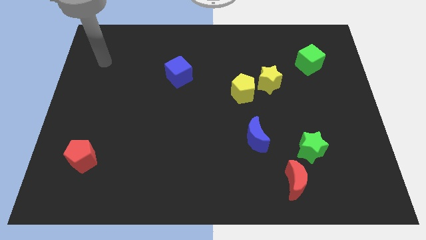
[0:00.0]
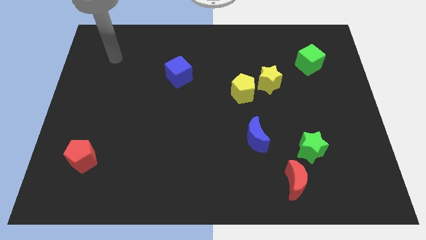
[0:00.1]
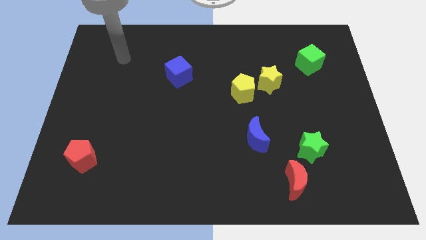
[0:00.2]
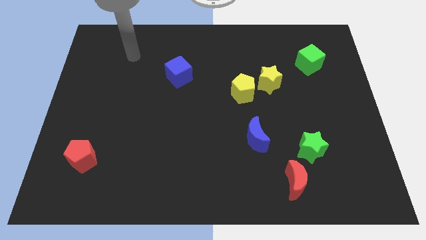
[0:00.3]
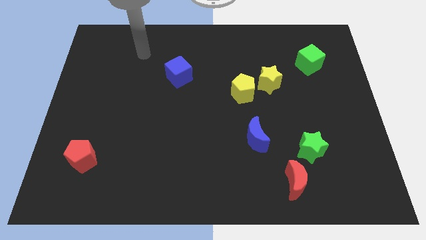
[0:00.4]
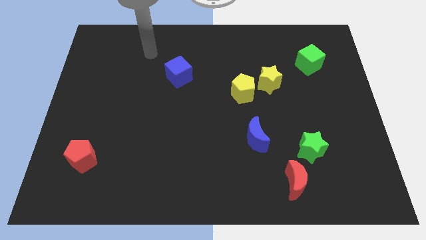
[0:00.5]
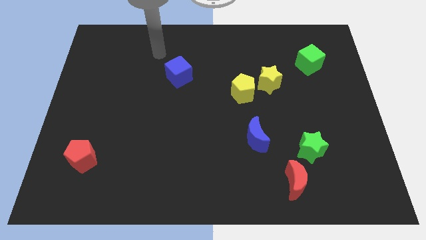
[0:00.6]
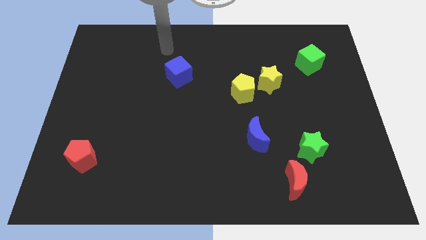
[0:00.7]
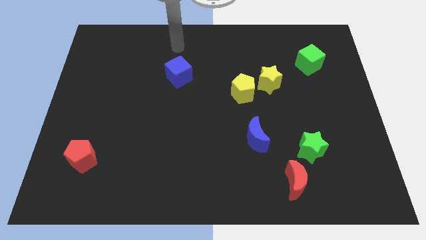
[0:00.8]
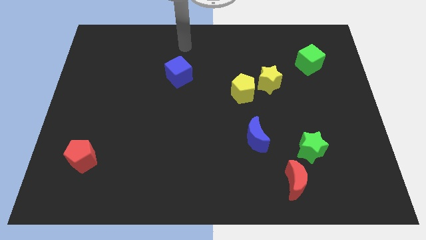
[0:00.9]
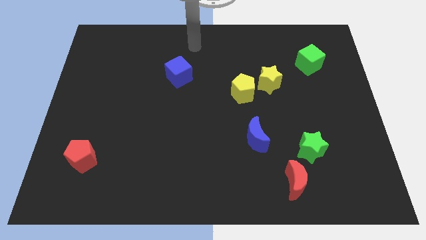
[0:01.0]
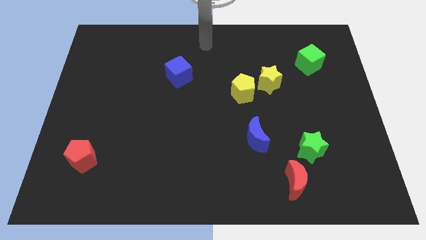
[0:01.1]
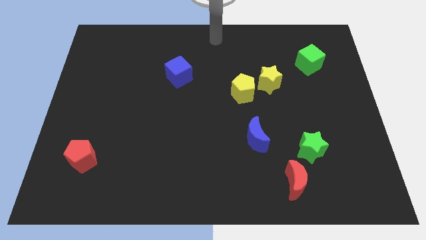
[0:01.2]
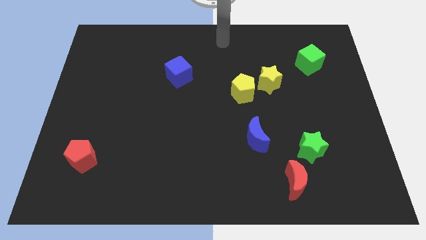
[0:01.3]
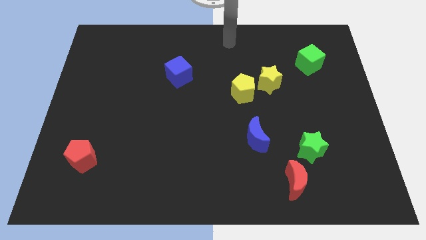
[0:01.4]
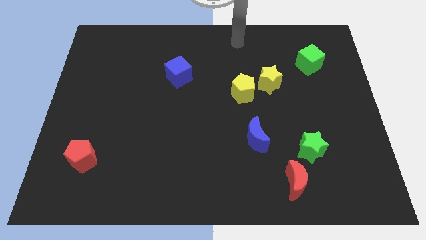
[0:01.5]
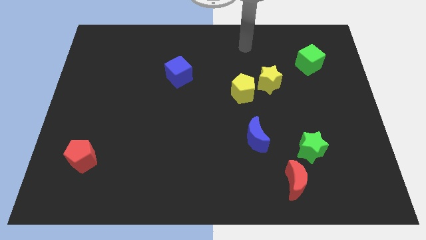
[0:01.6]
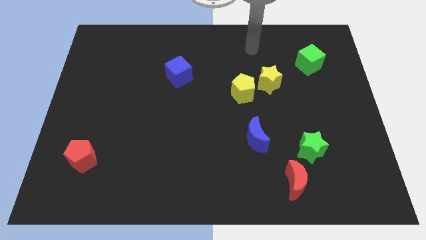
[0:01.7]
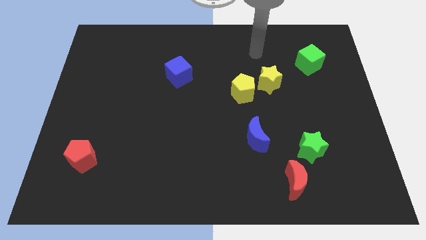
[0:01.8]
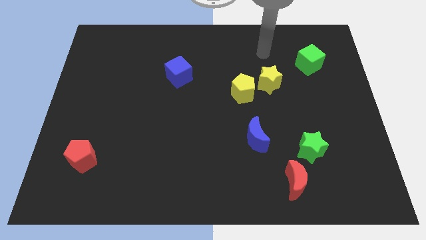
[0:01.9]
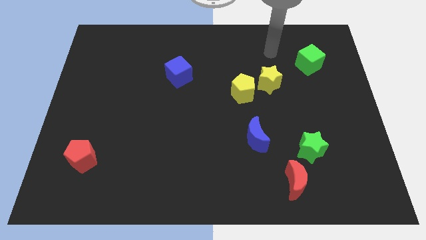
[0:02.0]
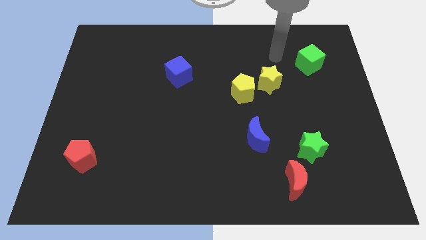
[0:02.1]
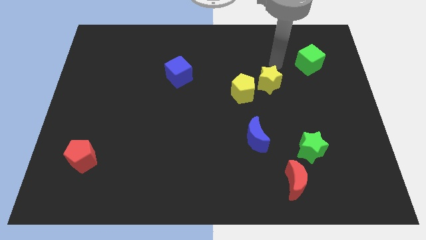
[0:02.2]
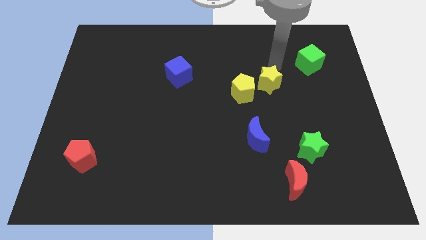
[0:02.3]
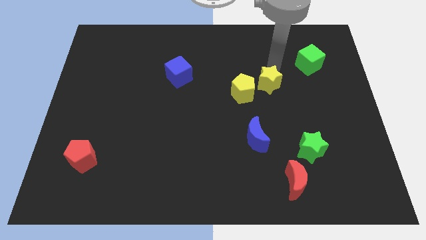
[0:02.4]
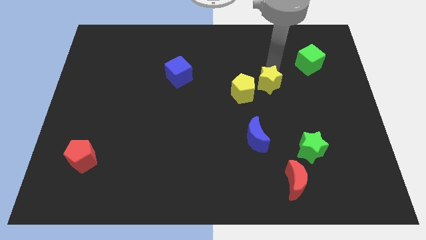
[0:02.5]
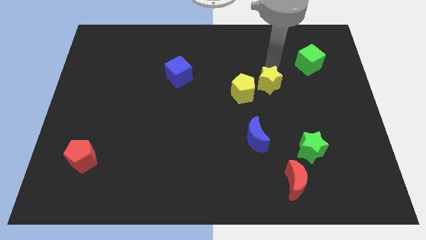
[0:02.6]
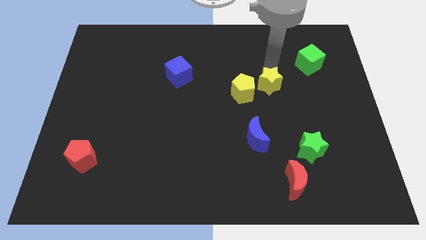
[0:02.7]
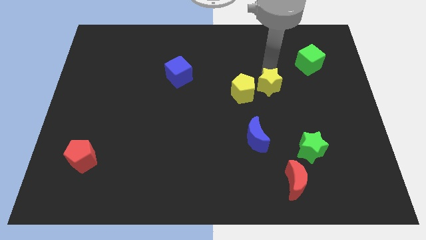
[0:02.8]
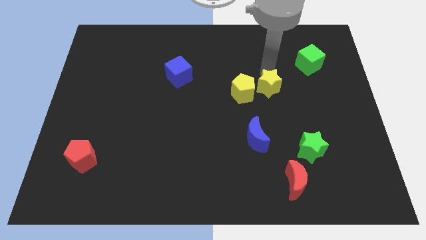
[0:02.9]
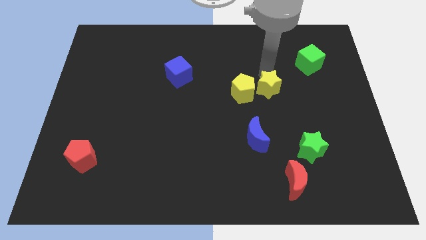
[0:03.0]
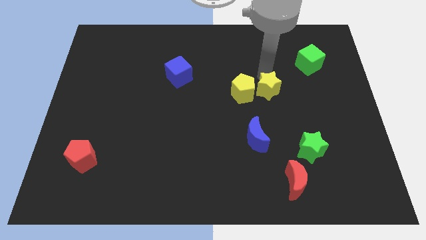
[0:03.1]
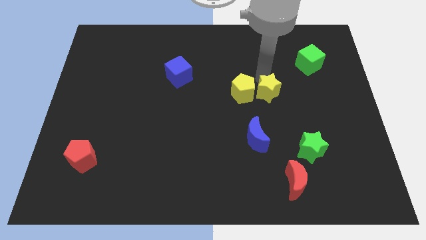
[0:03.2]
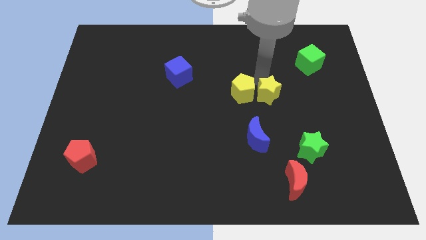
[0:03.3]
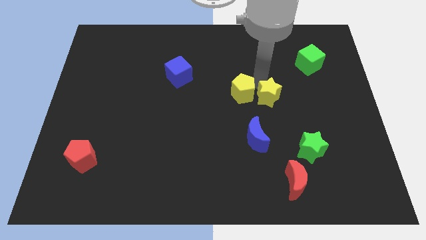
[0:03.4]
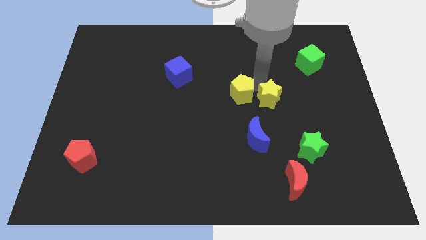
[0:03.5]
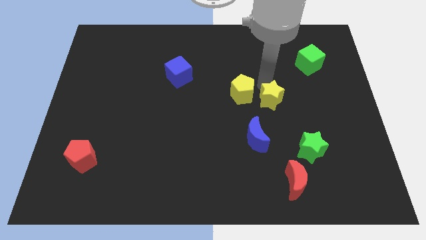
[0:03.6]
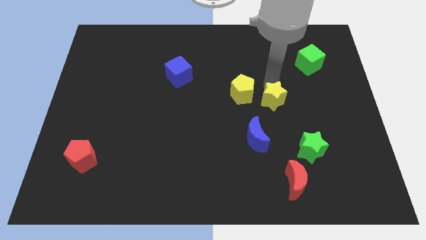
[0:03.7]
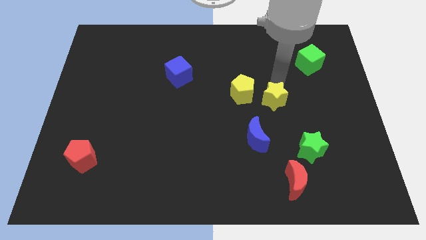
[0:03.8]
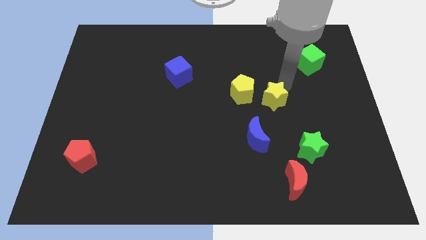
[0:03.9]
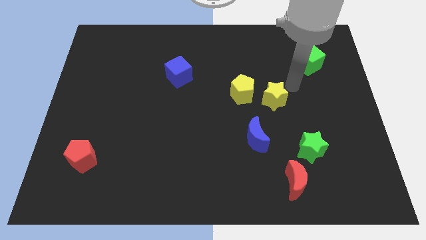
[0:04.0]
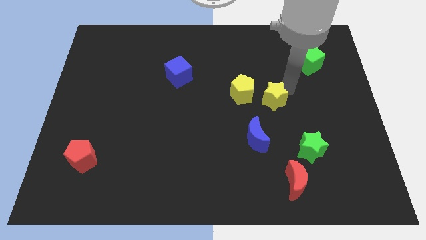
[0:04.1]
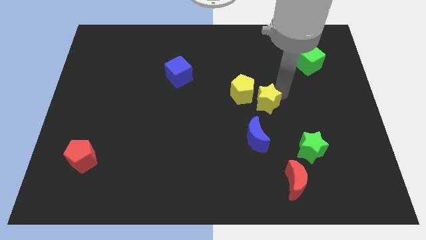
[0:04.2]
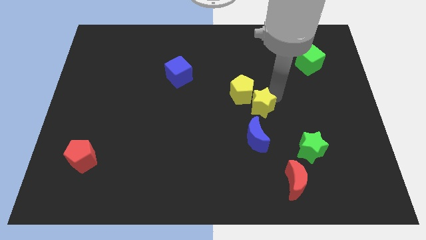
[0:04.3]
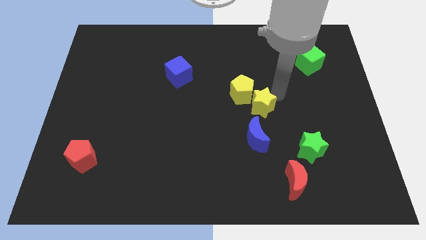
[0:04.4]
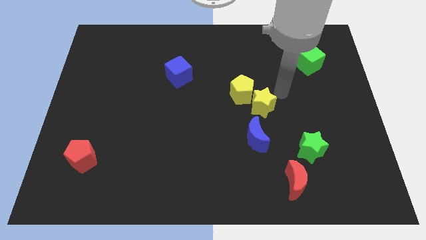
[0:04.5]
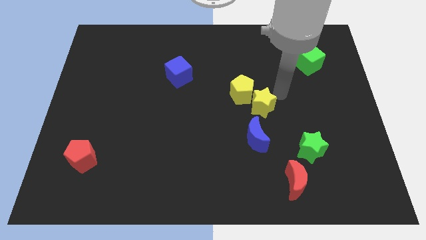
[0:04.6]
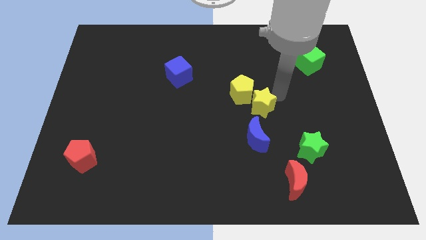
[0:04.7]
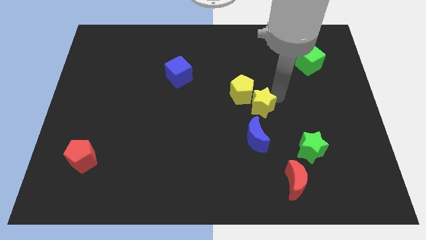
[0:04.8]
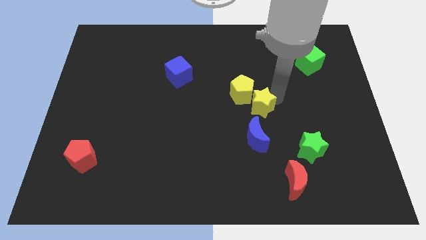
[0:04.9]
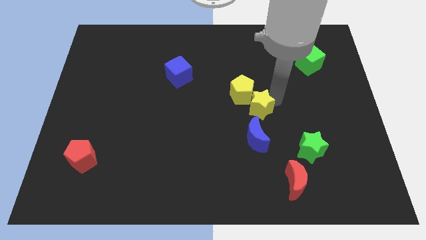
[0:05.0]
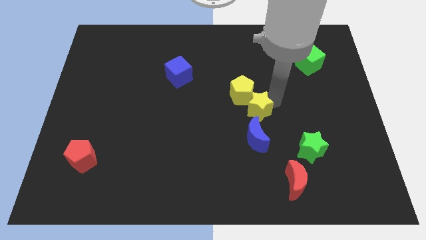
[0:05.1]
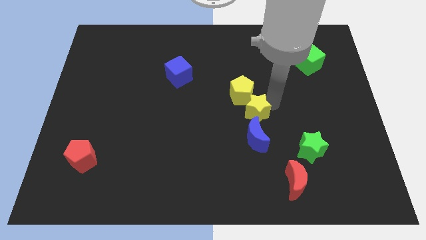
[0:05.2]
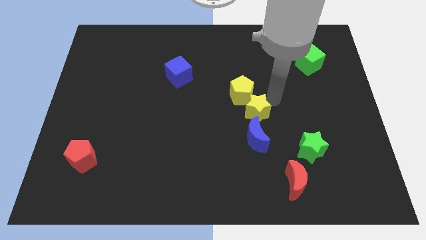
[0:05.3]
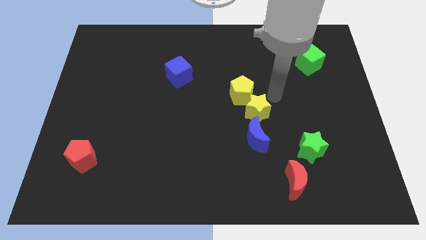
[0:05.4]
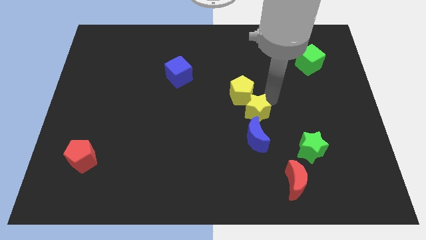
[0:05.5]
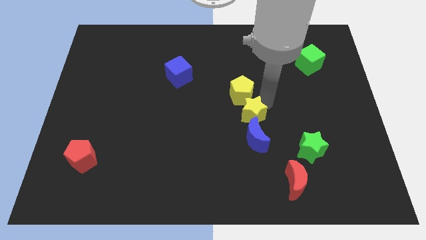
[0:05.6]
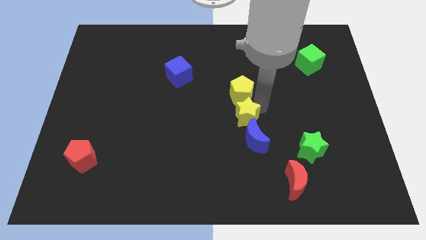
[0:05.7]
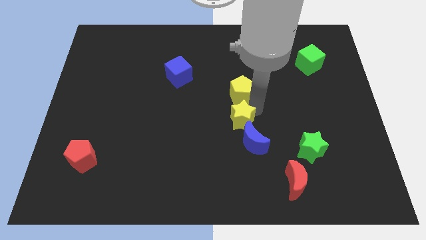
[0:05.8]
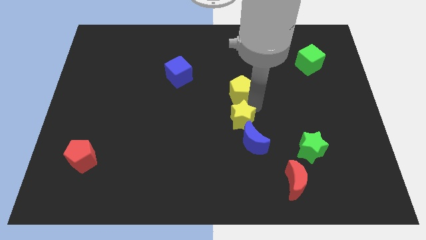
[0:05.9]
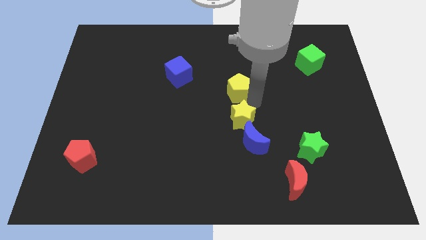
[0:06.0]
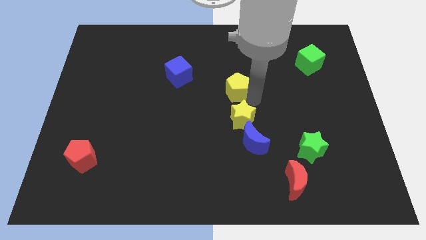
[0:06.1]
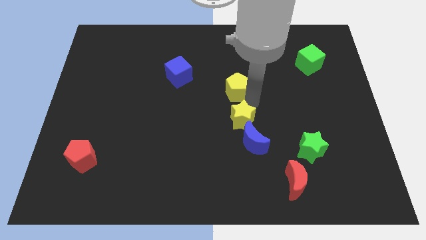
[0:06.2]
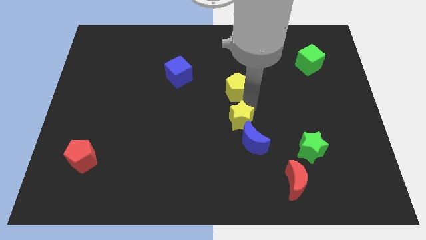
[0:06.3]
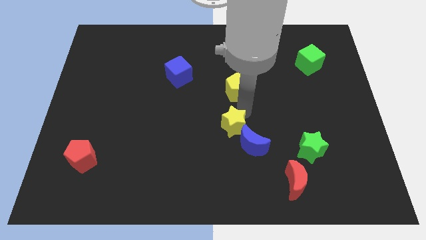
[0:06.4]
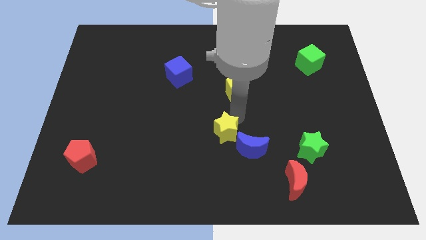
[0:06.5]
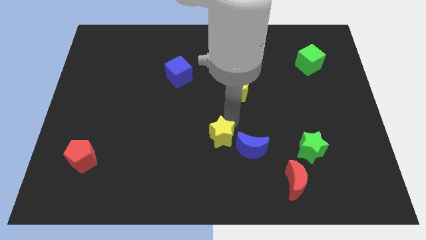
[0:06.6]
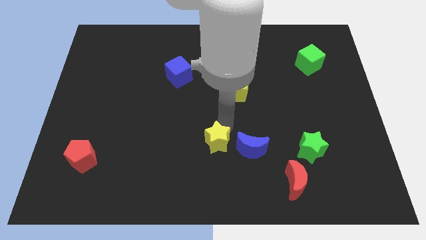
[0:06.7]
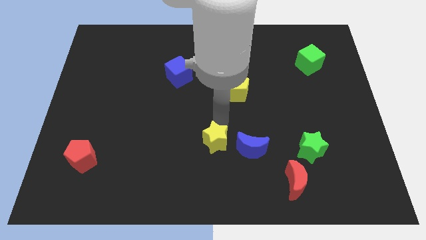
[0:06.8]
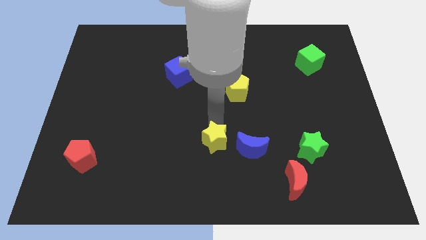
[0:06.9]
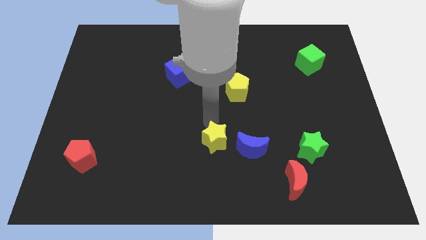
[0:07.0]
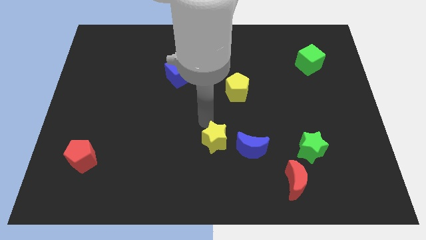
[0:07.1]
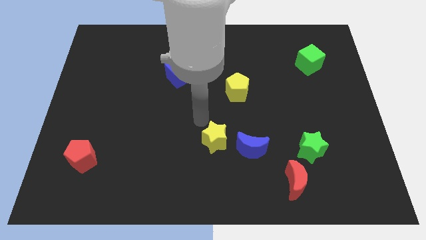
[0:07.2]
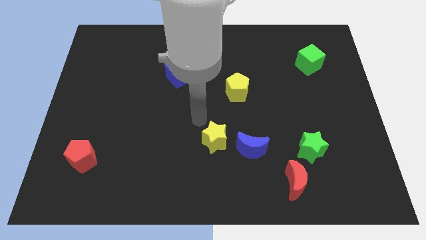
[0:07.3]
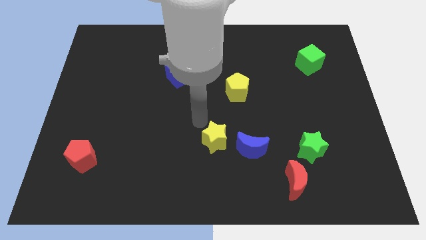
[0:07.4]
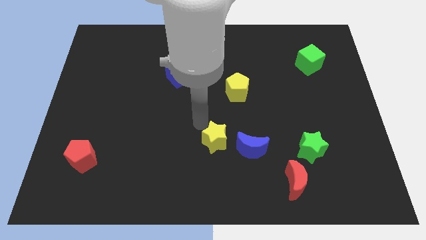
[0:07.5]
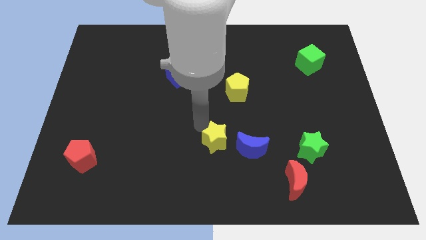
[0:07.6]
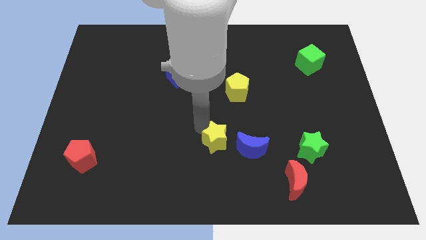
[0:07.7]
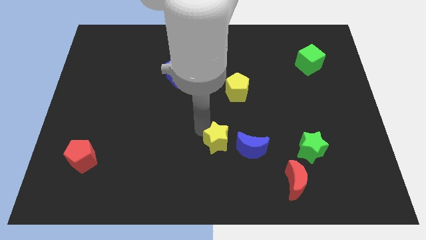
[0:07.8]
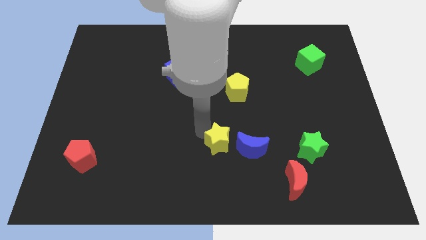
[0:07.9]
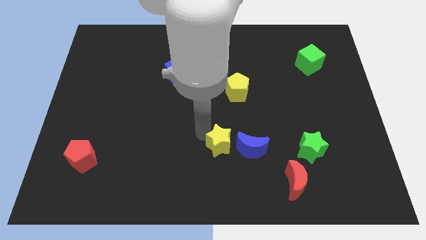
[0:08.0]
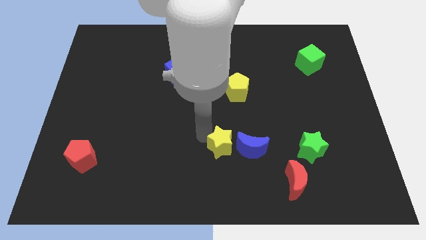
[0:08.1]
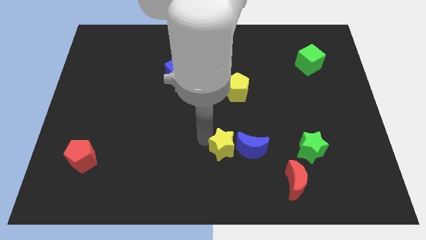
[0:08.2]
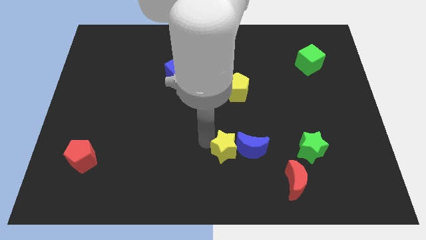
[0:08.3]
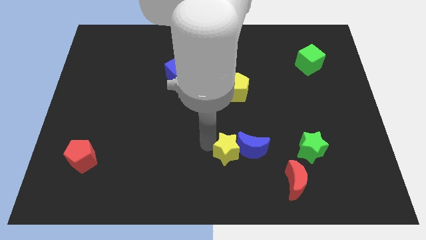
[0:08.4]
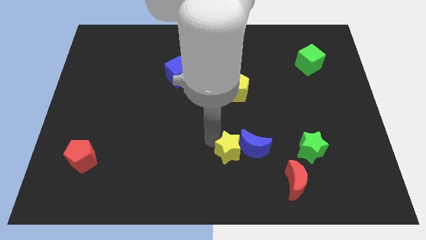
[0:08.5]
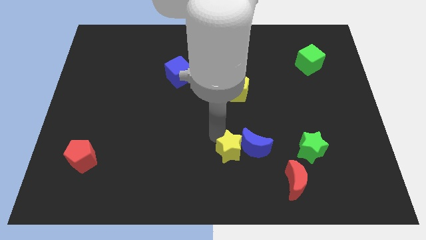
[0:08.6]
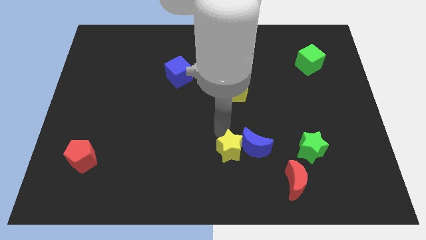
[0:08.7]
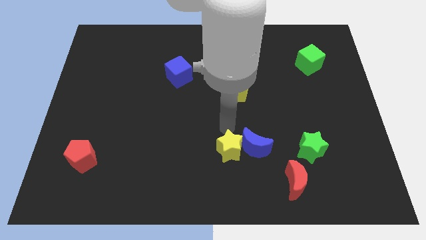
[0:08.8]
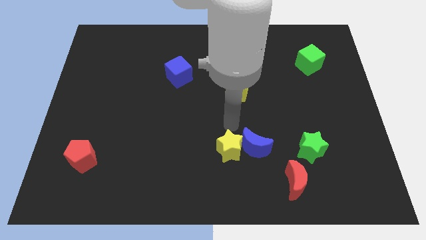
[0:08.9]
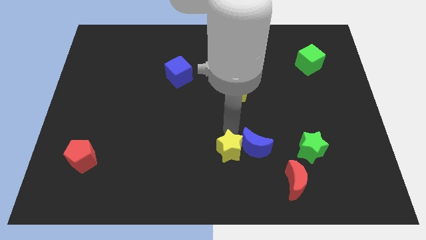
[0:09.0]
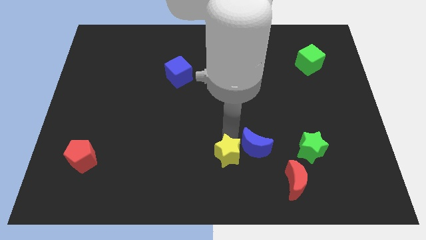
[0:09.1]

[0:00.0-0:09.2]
put the yellow star to the bottom side
